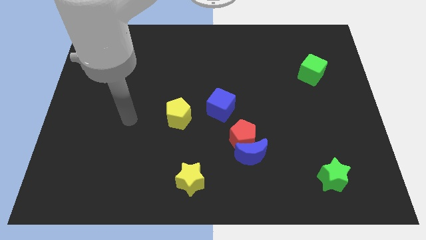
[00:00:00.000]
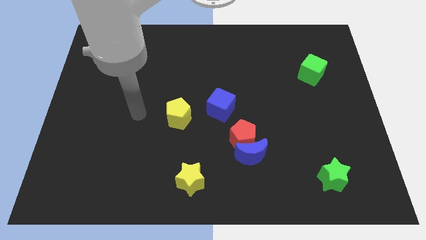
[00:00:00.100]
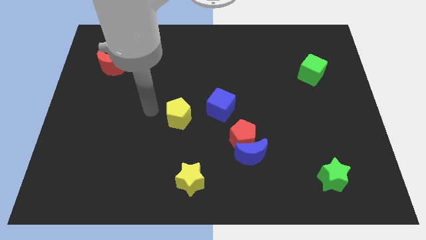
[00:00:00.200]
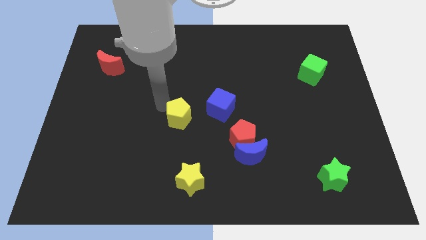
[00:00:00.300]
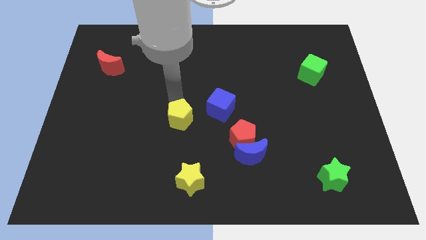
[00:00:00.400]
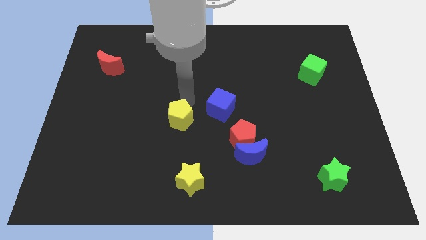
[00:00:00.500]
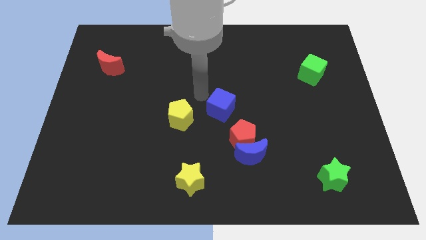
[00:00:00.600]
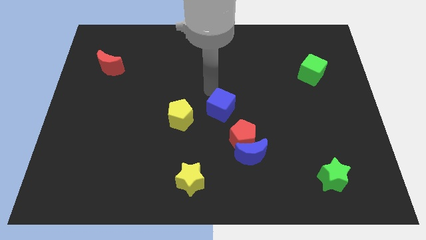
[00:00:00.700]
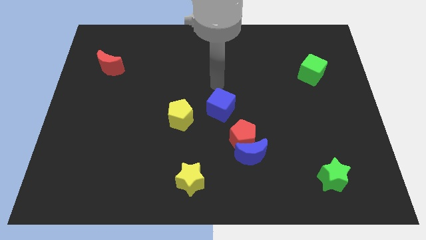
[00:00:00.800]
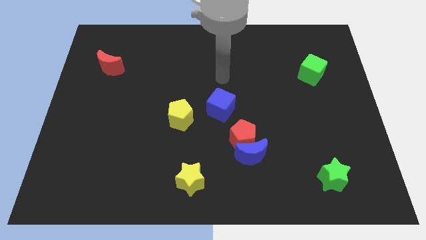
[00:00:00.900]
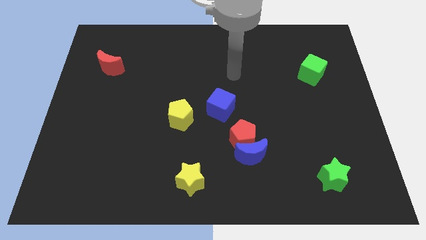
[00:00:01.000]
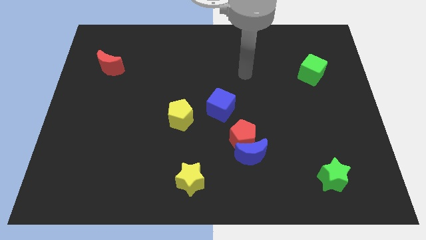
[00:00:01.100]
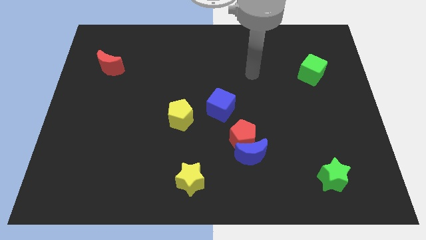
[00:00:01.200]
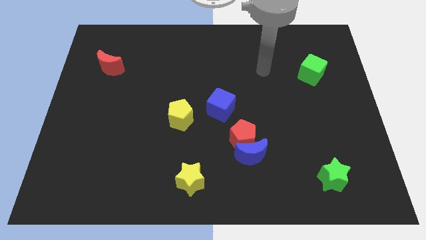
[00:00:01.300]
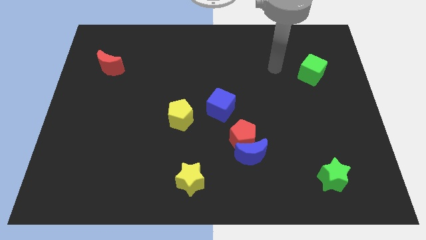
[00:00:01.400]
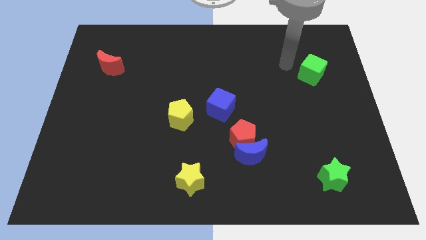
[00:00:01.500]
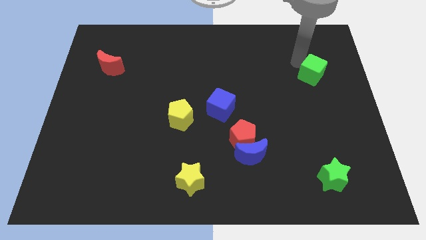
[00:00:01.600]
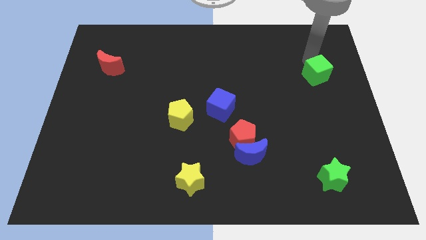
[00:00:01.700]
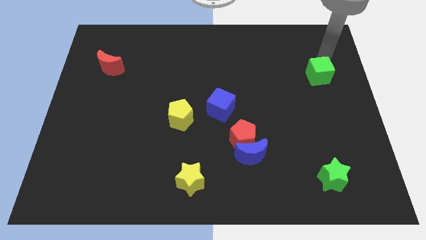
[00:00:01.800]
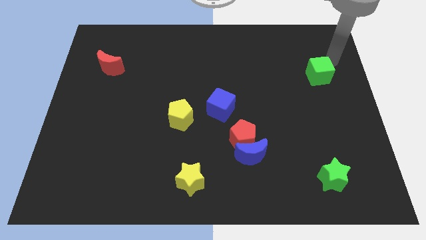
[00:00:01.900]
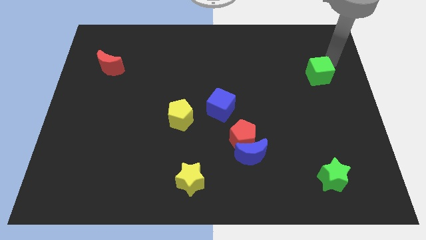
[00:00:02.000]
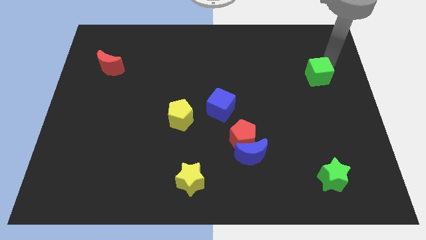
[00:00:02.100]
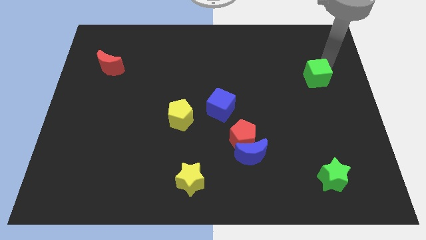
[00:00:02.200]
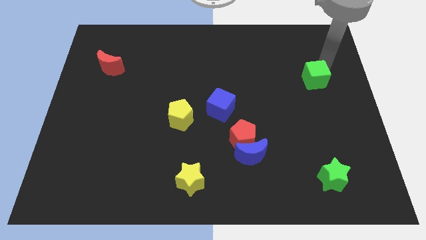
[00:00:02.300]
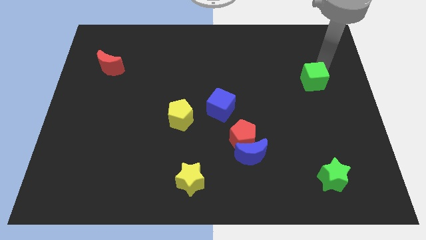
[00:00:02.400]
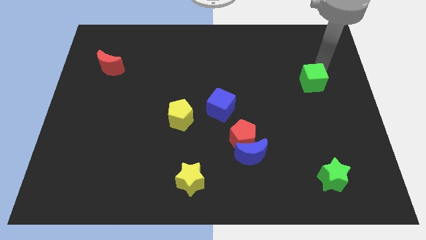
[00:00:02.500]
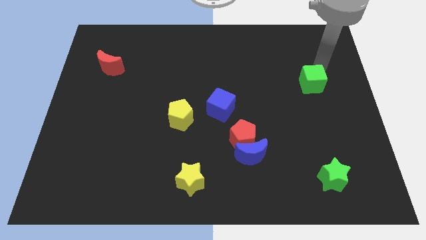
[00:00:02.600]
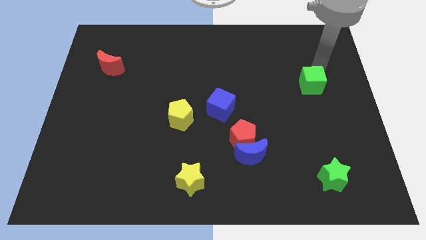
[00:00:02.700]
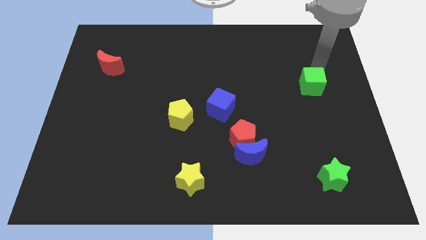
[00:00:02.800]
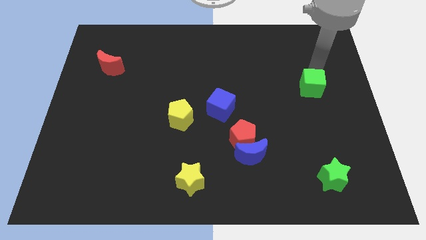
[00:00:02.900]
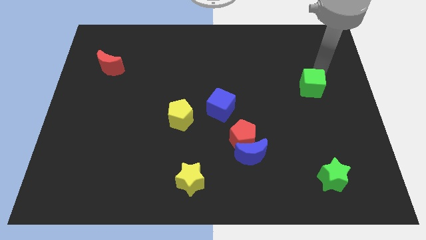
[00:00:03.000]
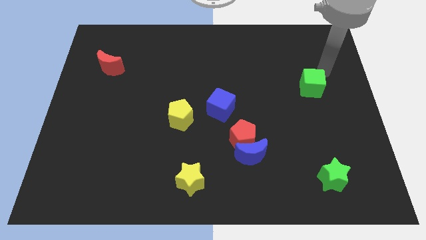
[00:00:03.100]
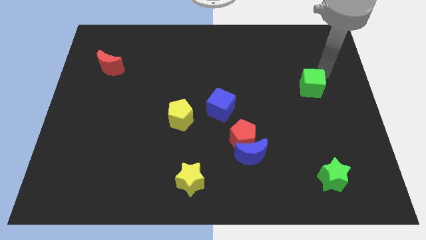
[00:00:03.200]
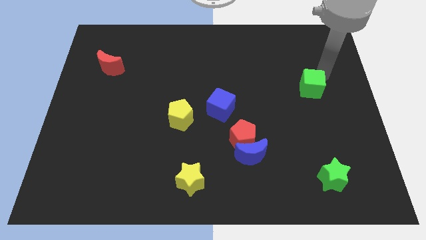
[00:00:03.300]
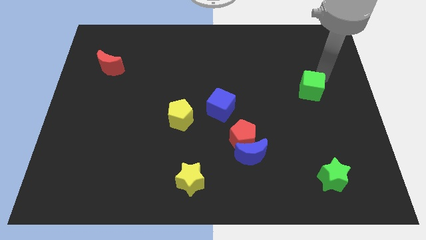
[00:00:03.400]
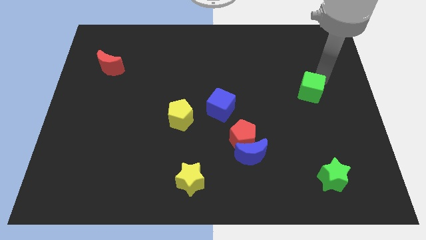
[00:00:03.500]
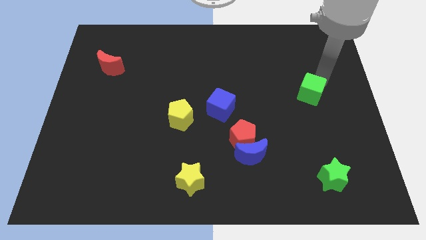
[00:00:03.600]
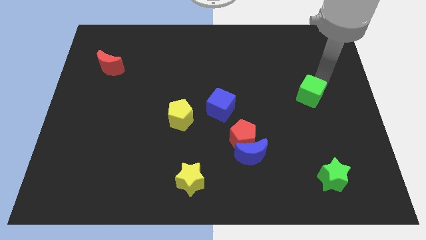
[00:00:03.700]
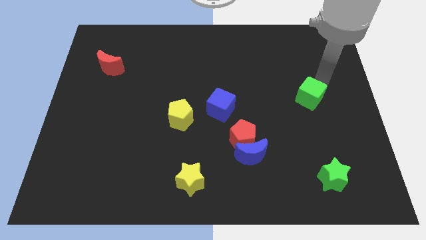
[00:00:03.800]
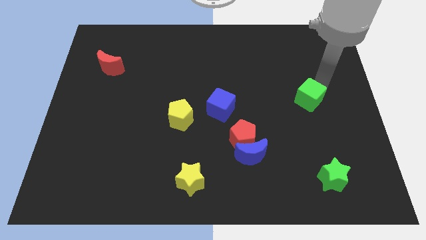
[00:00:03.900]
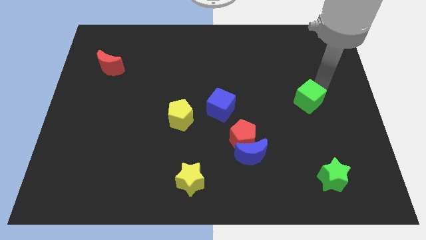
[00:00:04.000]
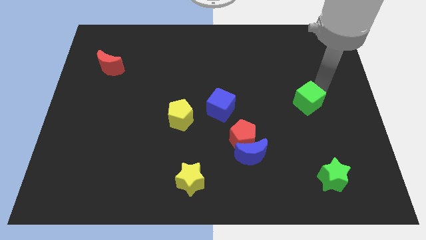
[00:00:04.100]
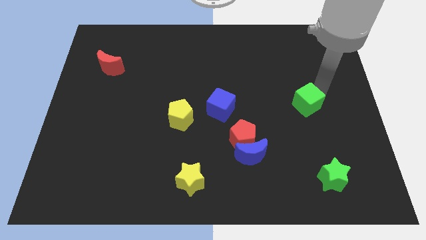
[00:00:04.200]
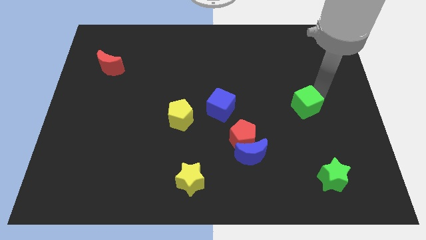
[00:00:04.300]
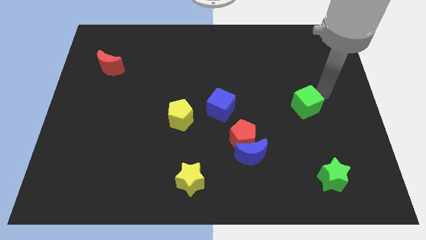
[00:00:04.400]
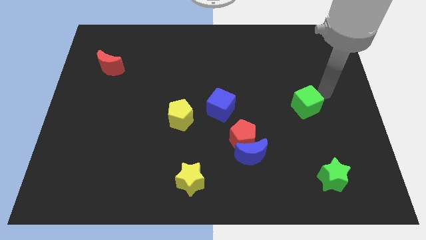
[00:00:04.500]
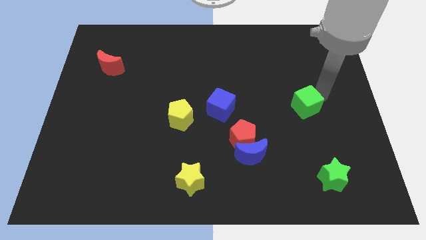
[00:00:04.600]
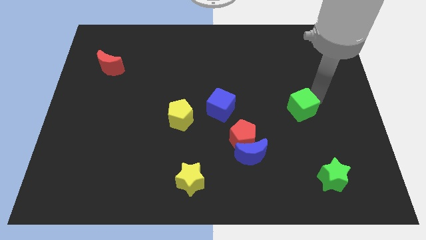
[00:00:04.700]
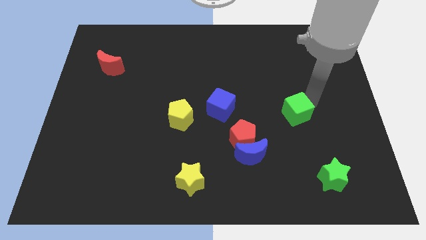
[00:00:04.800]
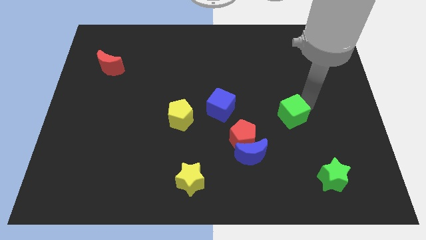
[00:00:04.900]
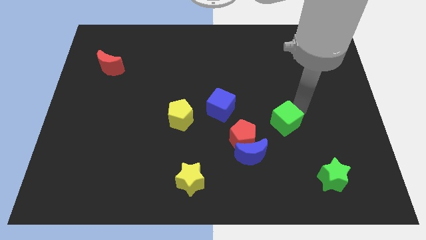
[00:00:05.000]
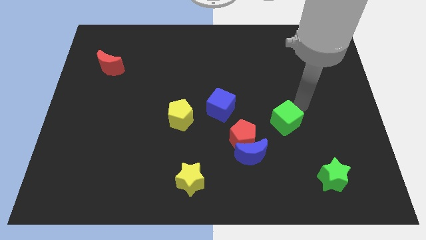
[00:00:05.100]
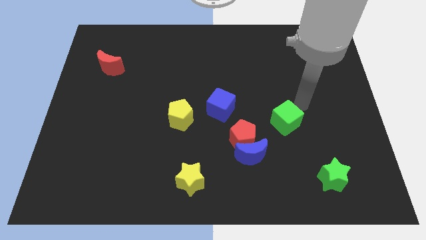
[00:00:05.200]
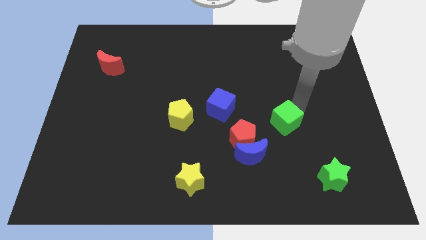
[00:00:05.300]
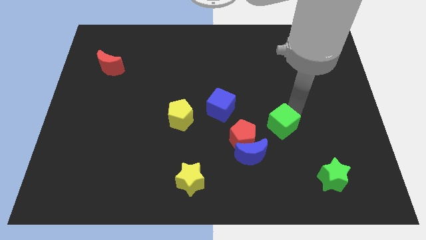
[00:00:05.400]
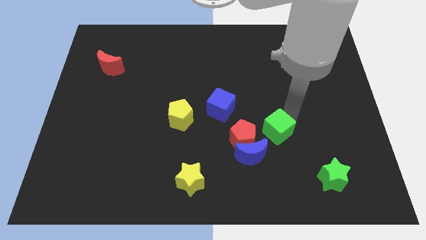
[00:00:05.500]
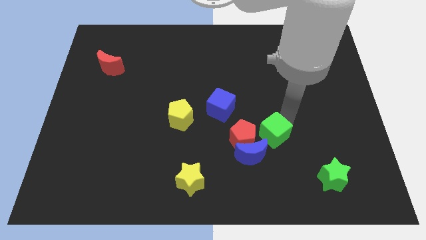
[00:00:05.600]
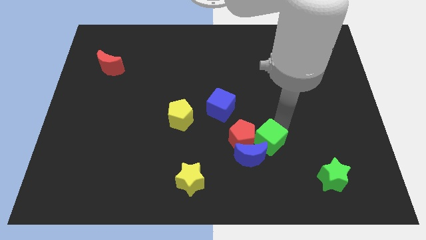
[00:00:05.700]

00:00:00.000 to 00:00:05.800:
move the green cube to the blue moon

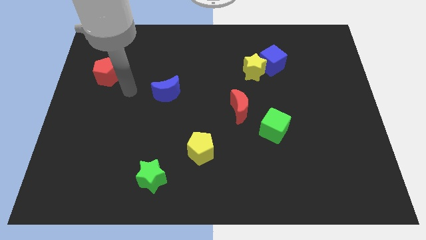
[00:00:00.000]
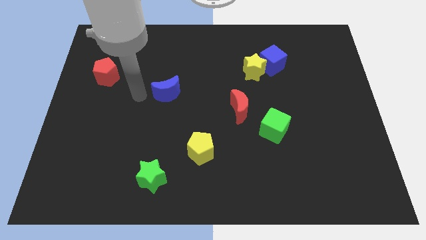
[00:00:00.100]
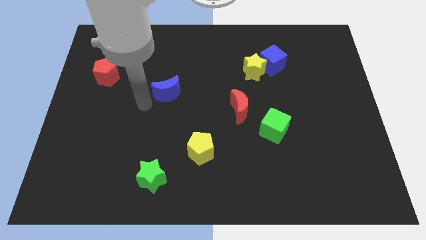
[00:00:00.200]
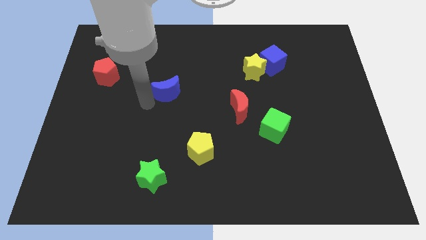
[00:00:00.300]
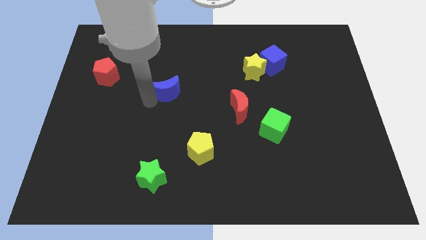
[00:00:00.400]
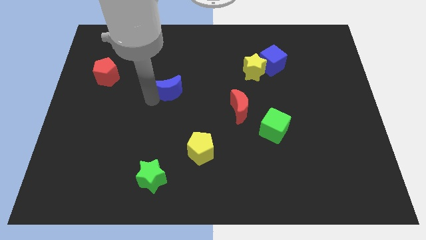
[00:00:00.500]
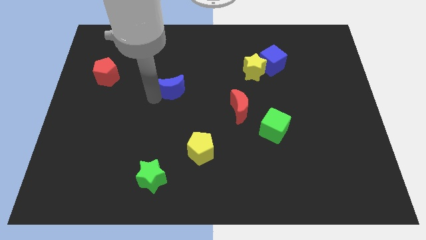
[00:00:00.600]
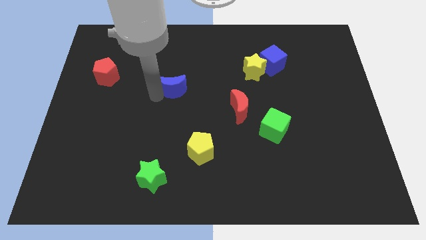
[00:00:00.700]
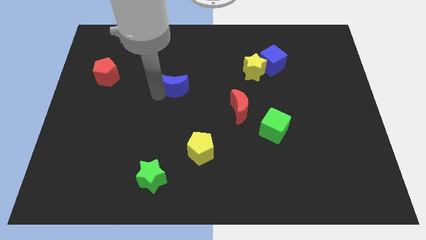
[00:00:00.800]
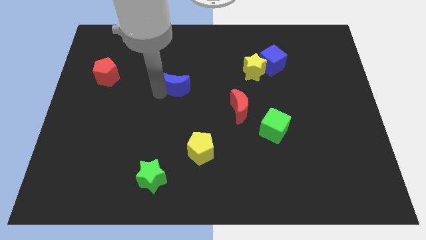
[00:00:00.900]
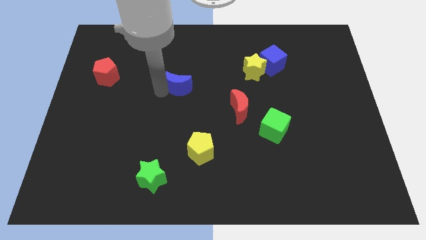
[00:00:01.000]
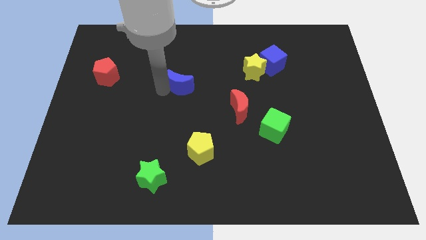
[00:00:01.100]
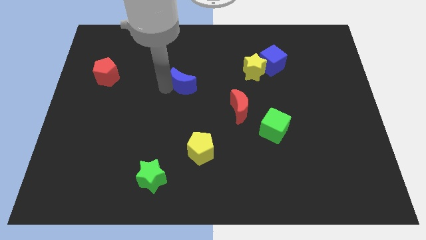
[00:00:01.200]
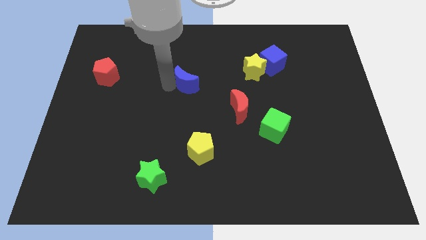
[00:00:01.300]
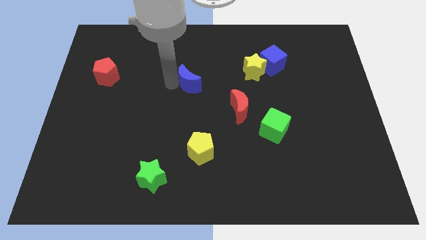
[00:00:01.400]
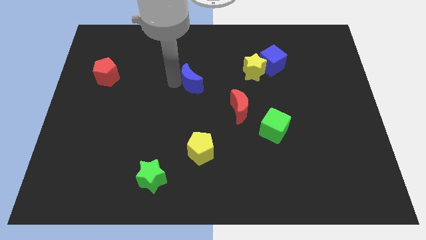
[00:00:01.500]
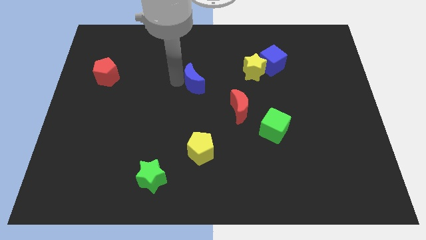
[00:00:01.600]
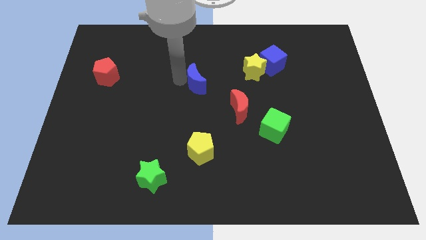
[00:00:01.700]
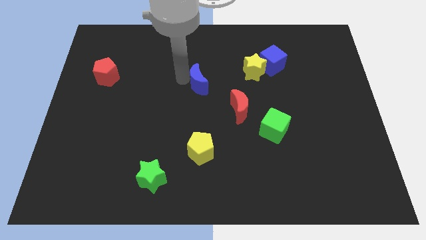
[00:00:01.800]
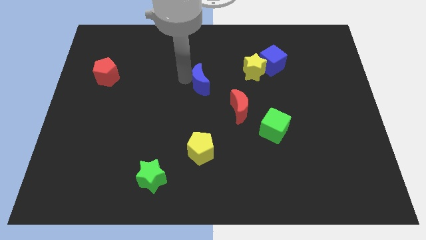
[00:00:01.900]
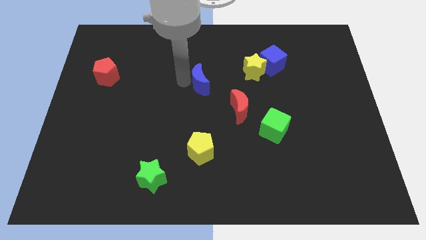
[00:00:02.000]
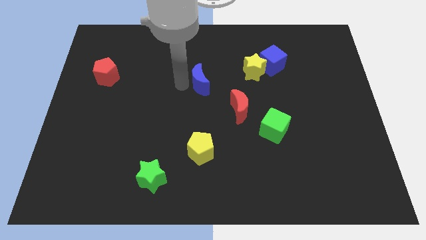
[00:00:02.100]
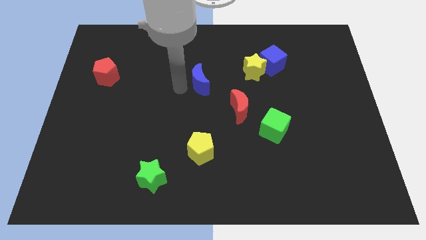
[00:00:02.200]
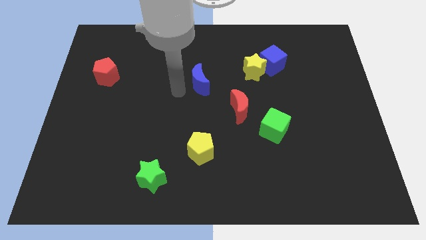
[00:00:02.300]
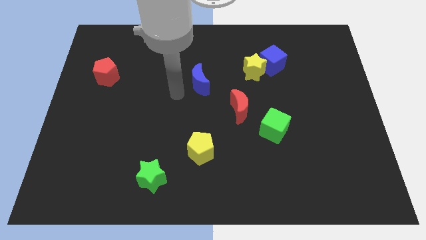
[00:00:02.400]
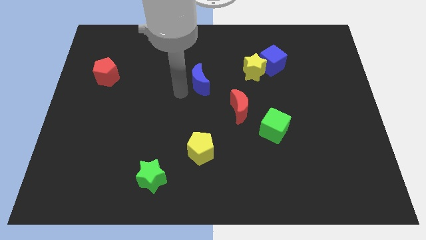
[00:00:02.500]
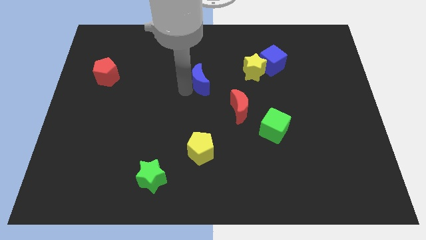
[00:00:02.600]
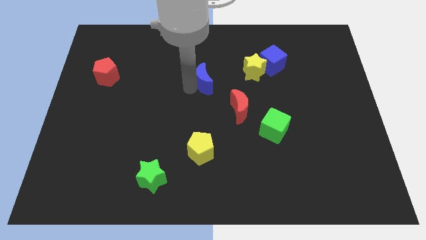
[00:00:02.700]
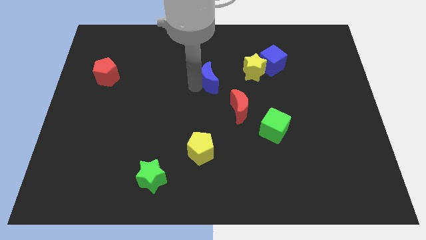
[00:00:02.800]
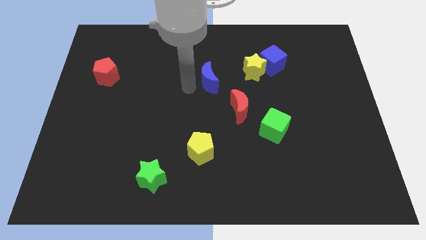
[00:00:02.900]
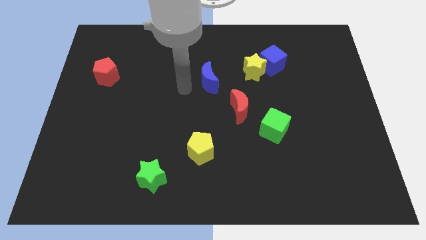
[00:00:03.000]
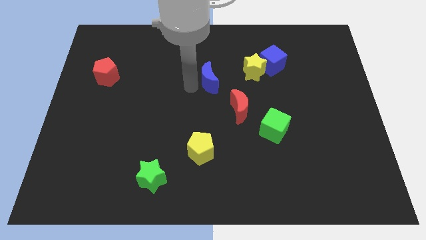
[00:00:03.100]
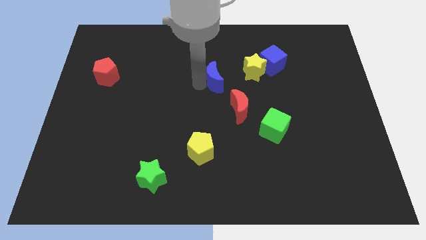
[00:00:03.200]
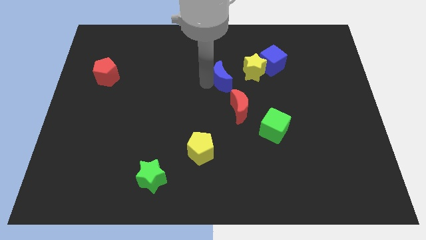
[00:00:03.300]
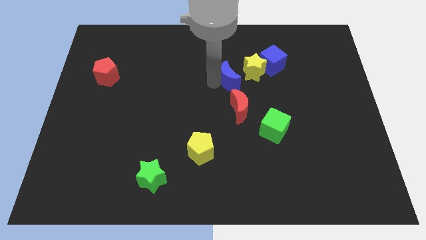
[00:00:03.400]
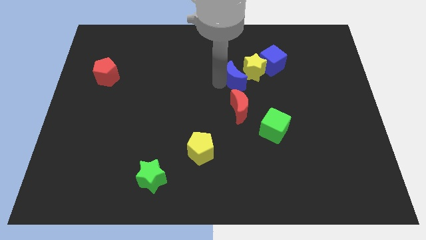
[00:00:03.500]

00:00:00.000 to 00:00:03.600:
push the blue moon next to the yellow star
